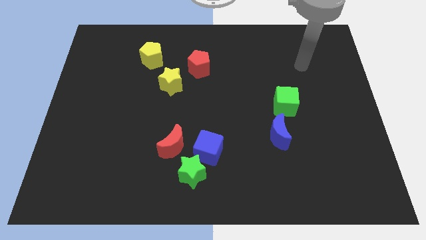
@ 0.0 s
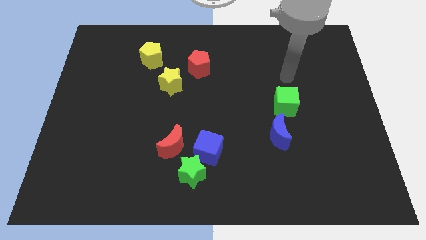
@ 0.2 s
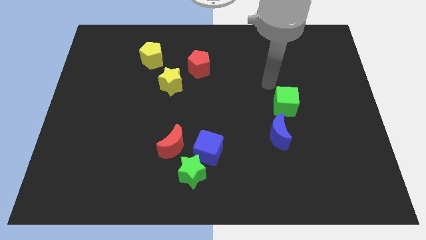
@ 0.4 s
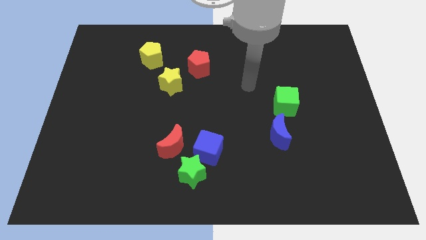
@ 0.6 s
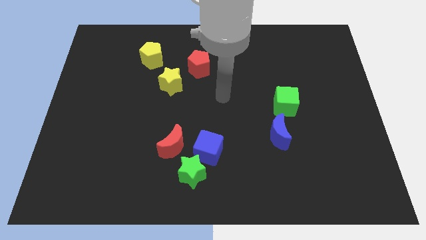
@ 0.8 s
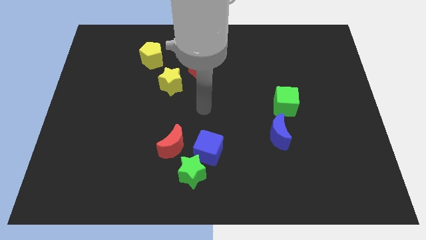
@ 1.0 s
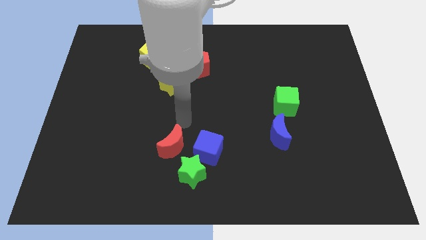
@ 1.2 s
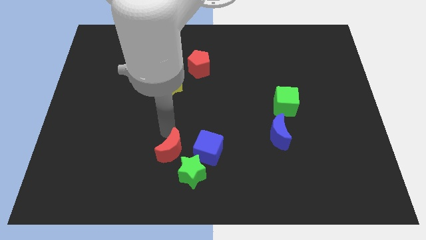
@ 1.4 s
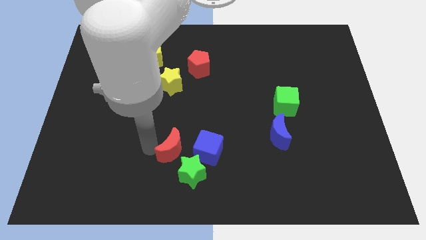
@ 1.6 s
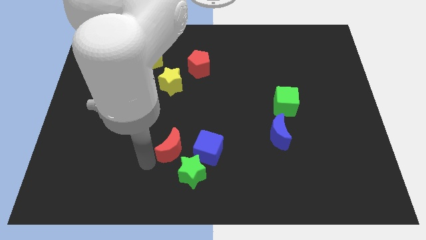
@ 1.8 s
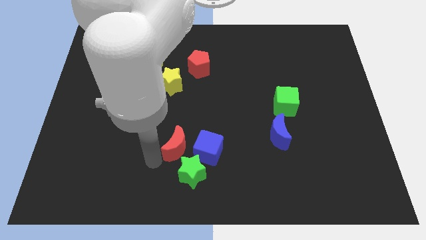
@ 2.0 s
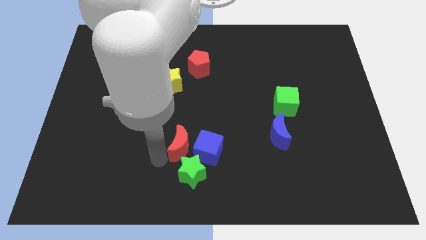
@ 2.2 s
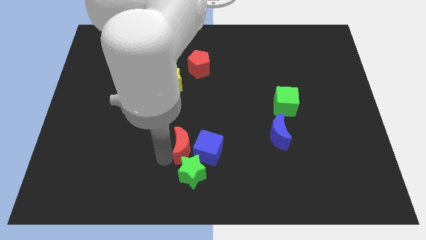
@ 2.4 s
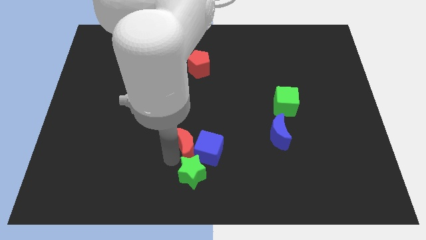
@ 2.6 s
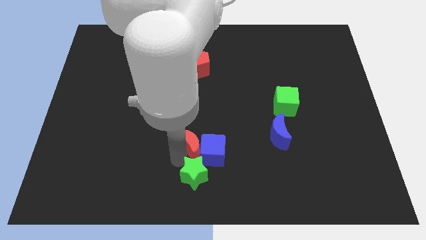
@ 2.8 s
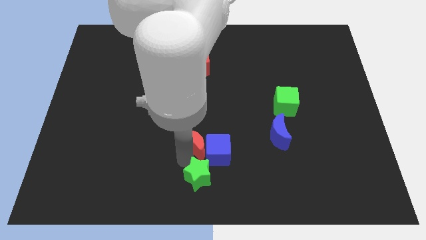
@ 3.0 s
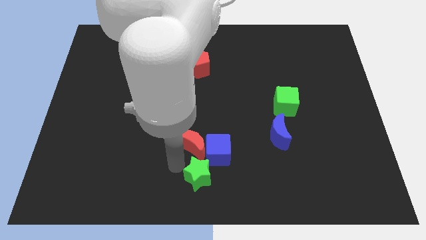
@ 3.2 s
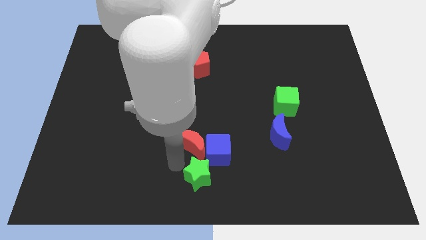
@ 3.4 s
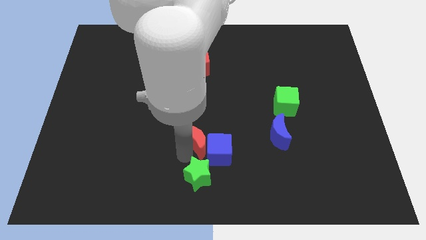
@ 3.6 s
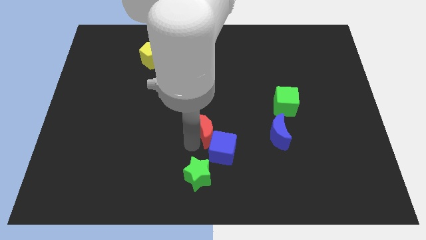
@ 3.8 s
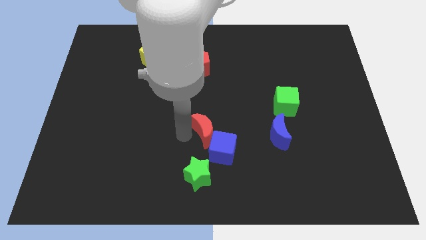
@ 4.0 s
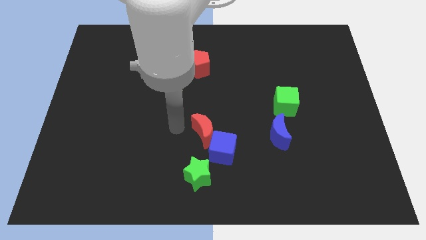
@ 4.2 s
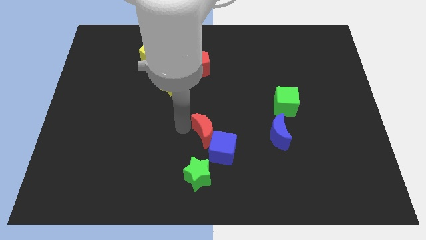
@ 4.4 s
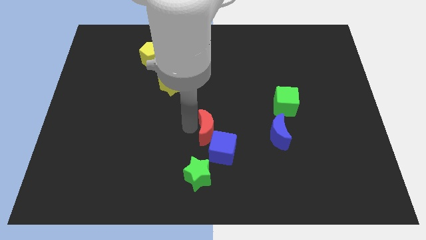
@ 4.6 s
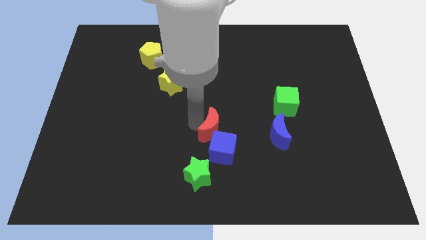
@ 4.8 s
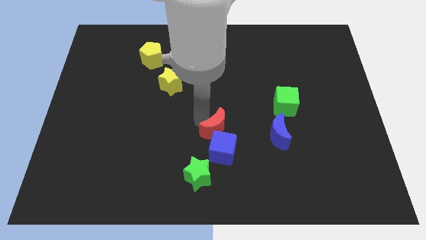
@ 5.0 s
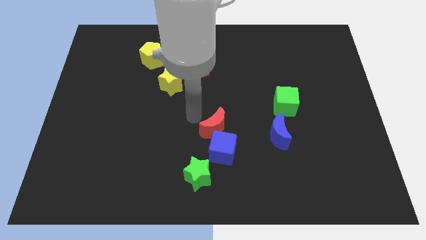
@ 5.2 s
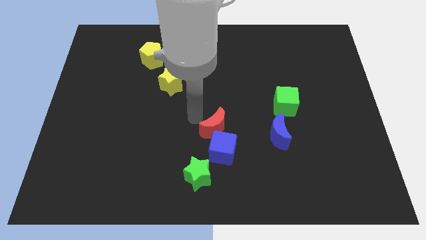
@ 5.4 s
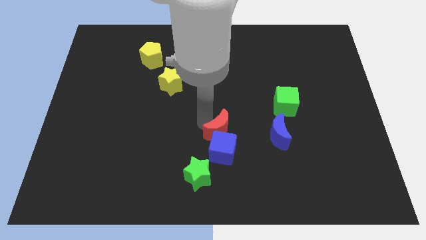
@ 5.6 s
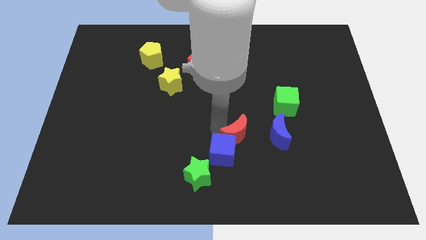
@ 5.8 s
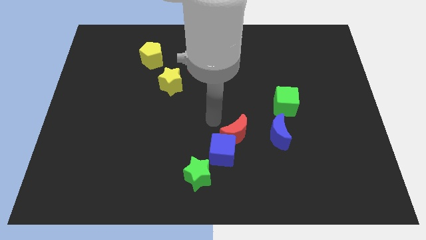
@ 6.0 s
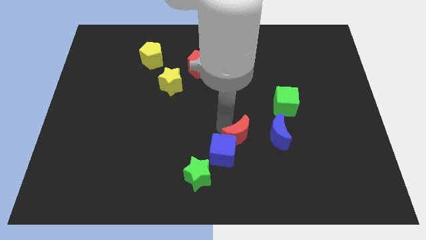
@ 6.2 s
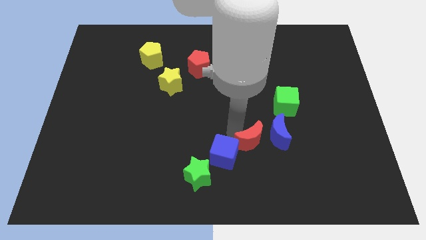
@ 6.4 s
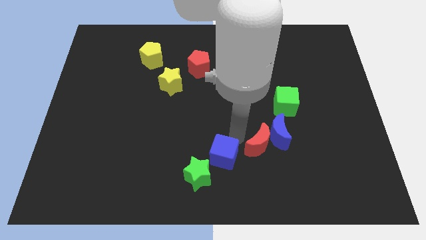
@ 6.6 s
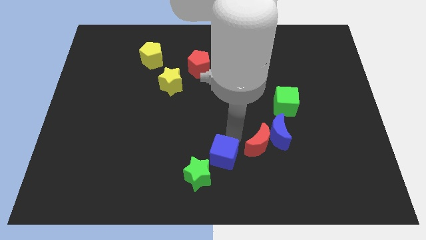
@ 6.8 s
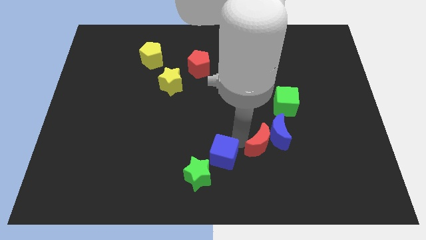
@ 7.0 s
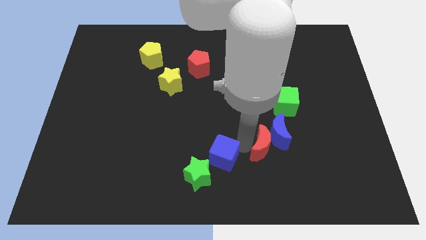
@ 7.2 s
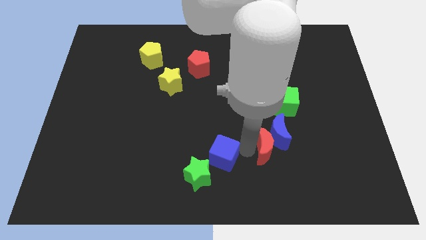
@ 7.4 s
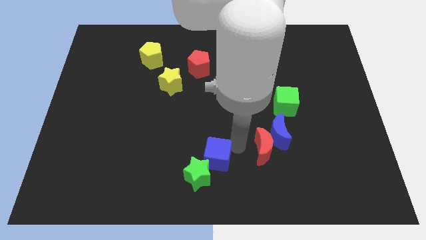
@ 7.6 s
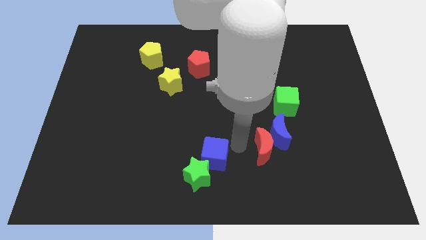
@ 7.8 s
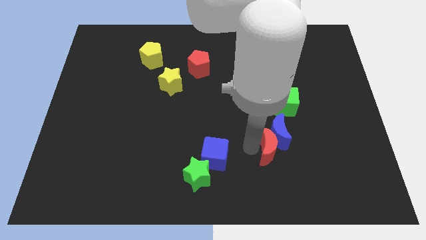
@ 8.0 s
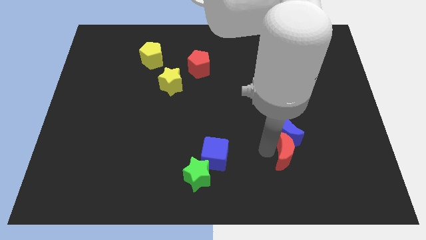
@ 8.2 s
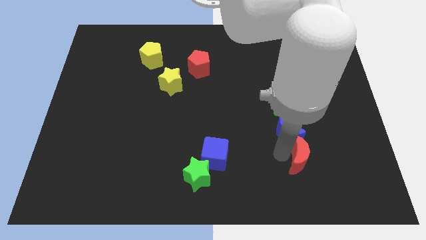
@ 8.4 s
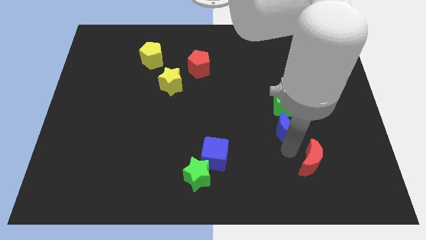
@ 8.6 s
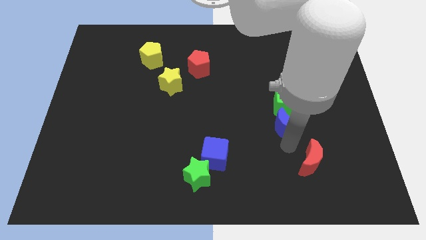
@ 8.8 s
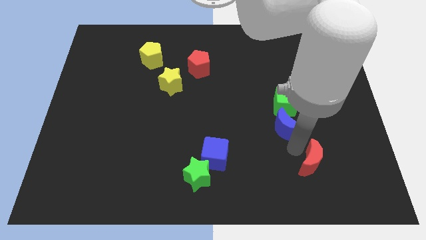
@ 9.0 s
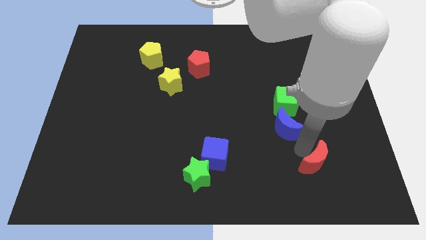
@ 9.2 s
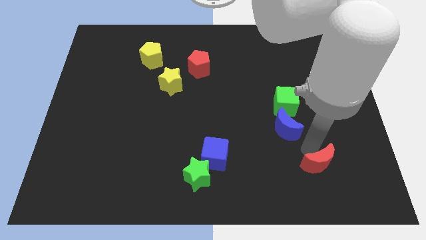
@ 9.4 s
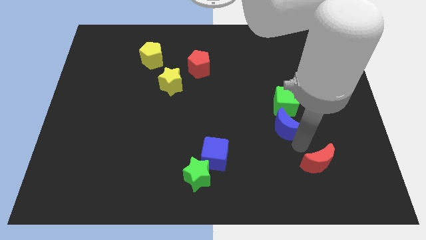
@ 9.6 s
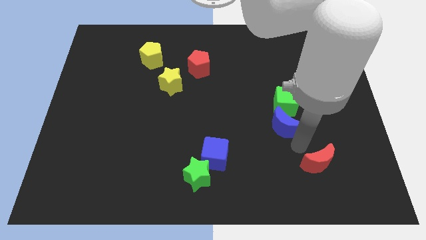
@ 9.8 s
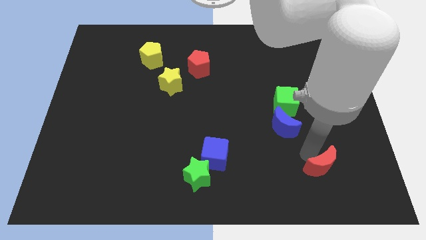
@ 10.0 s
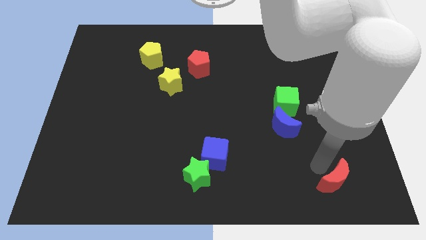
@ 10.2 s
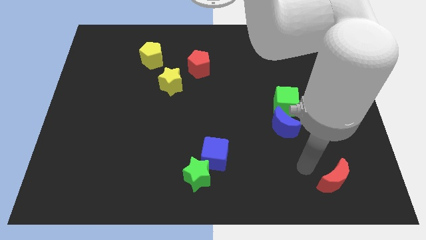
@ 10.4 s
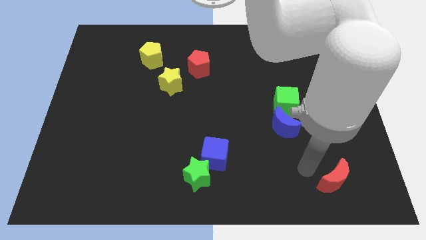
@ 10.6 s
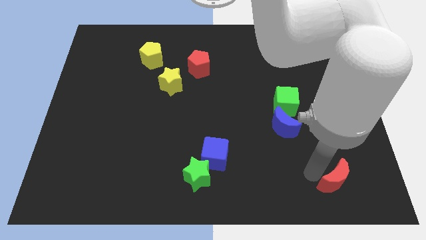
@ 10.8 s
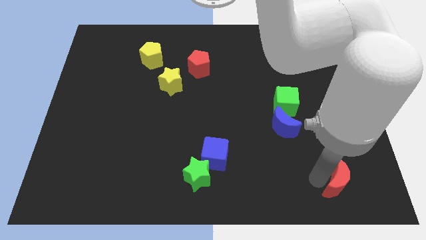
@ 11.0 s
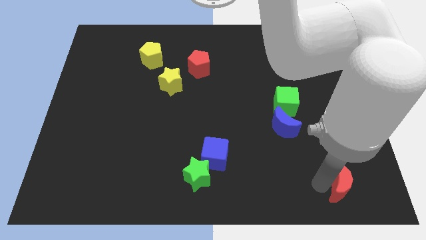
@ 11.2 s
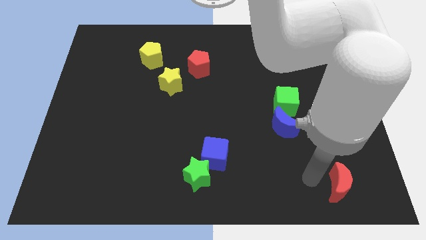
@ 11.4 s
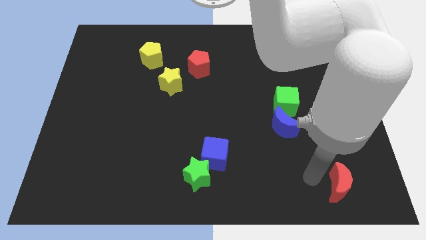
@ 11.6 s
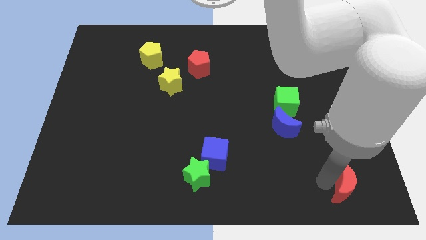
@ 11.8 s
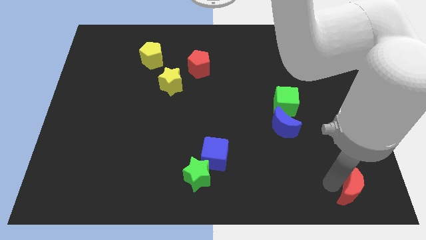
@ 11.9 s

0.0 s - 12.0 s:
put the red moon to the bottom right corner

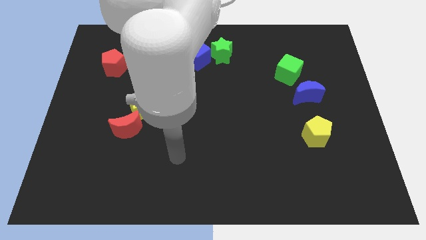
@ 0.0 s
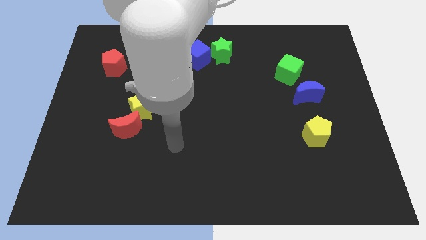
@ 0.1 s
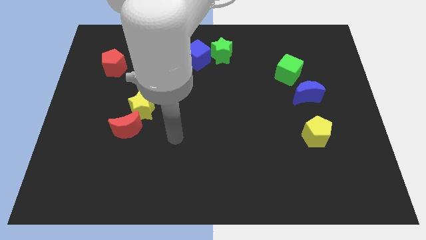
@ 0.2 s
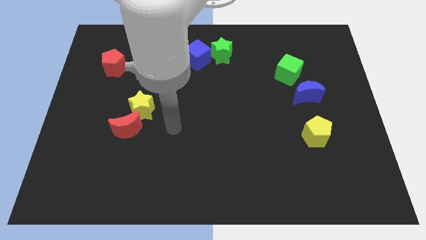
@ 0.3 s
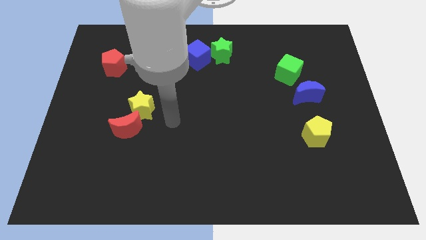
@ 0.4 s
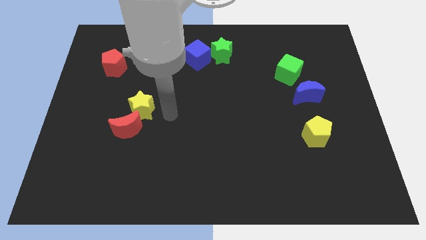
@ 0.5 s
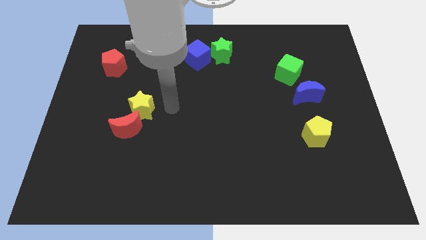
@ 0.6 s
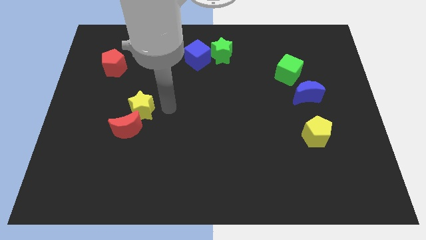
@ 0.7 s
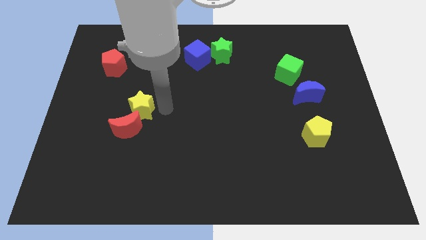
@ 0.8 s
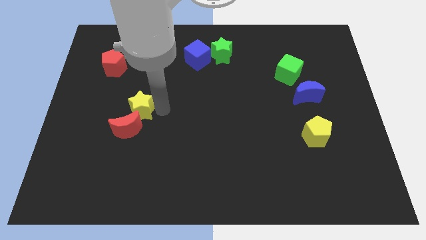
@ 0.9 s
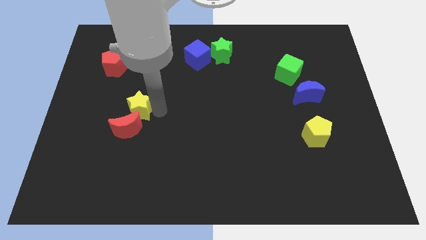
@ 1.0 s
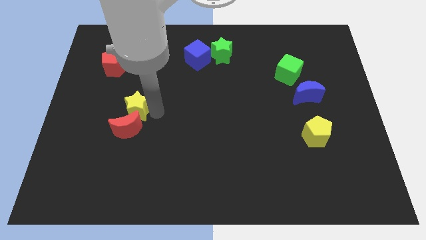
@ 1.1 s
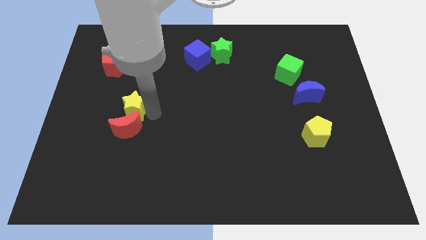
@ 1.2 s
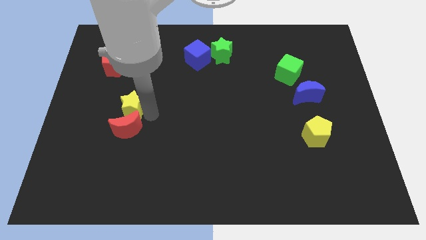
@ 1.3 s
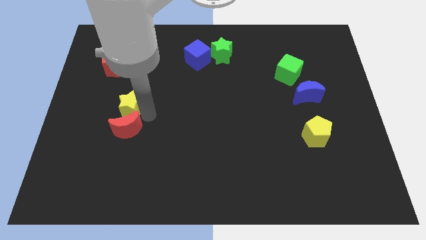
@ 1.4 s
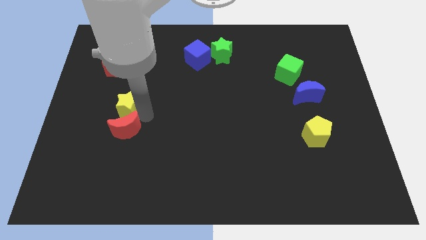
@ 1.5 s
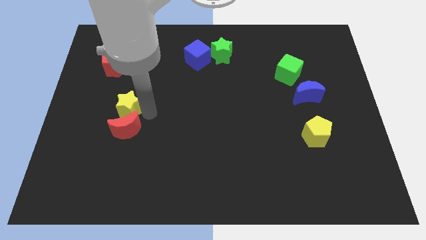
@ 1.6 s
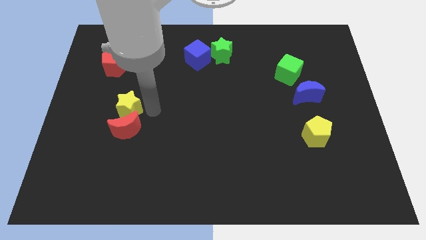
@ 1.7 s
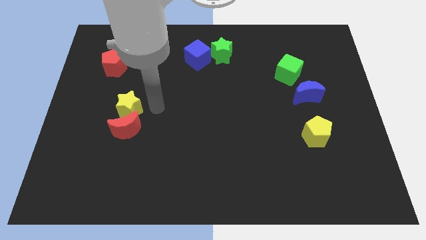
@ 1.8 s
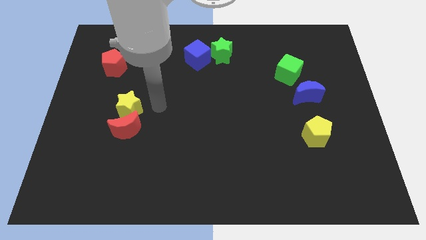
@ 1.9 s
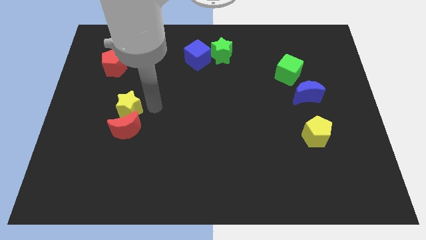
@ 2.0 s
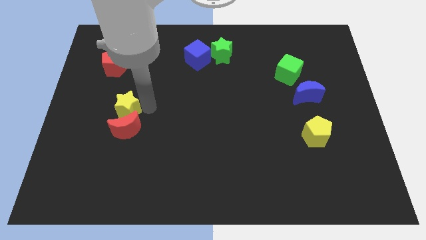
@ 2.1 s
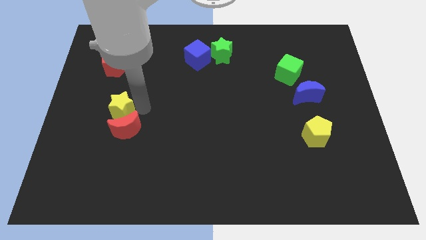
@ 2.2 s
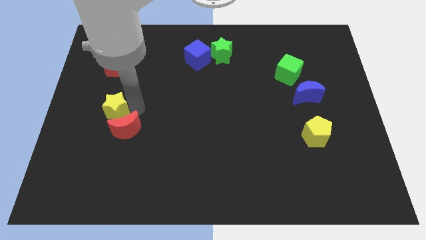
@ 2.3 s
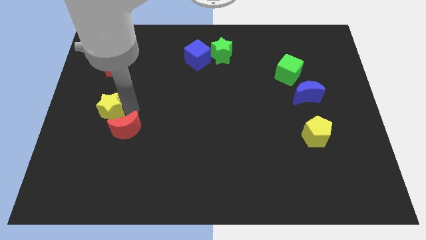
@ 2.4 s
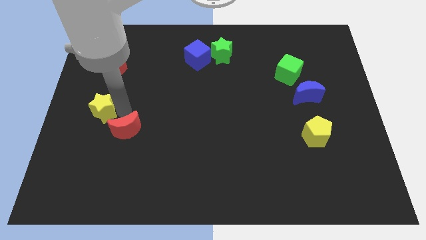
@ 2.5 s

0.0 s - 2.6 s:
push the yellow star to the center left
